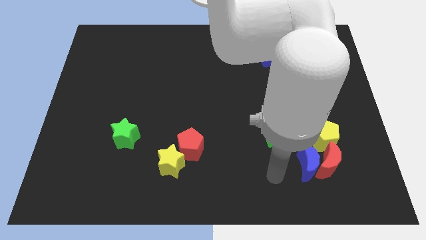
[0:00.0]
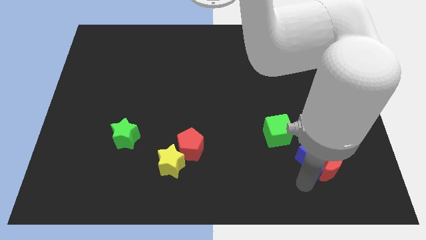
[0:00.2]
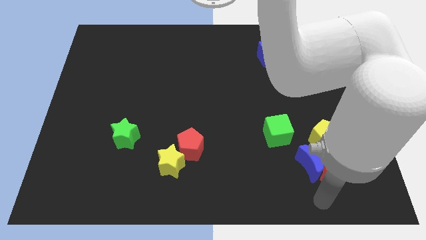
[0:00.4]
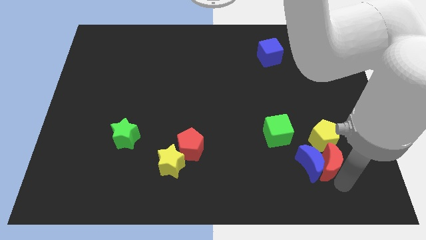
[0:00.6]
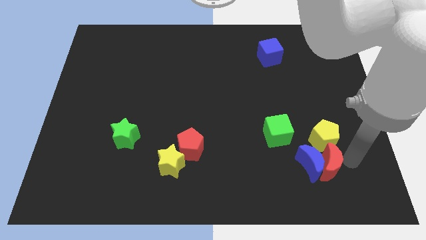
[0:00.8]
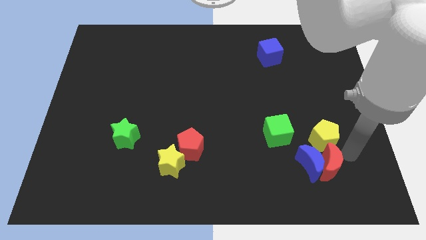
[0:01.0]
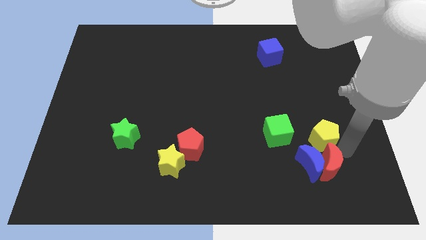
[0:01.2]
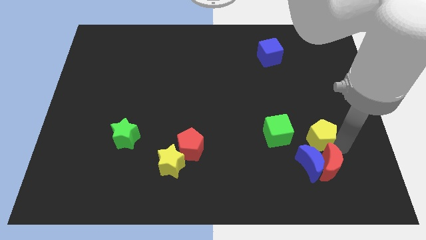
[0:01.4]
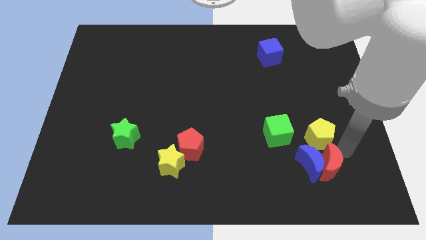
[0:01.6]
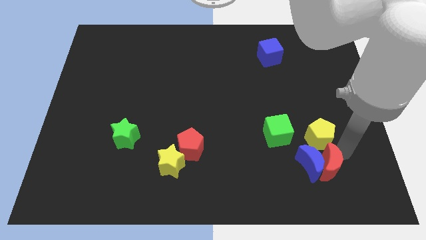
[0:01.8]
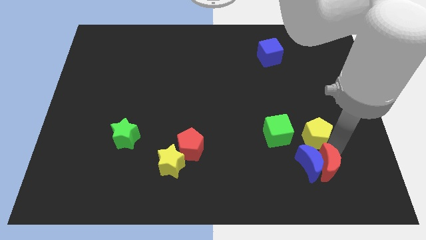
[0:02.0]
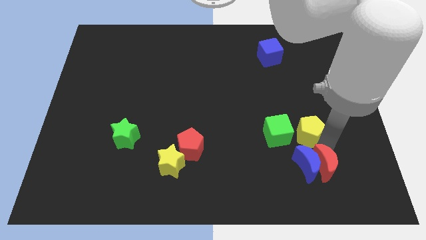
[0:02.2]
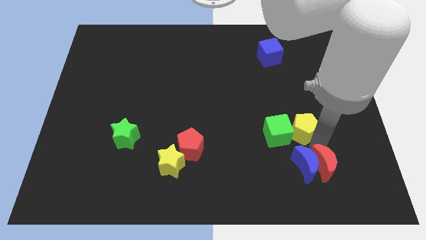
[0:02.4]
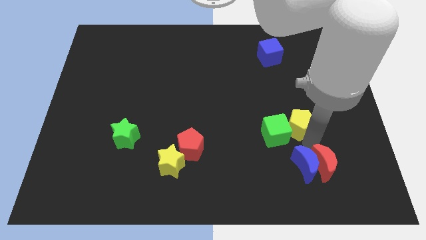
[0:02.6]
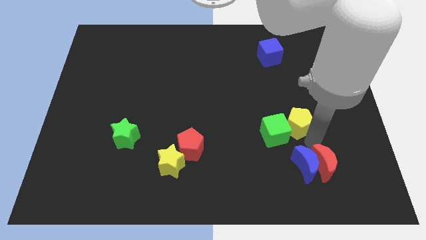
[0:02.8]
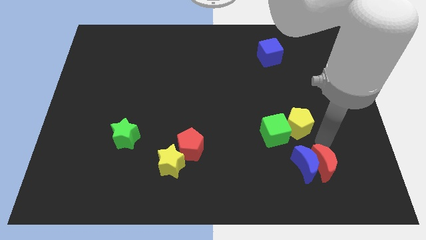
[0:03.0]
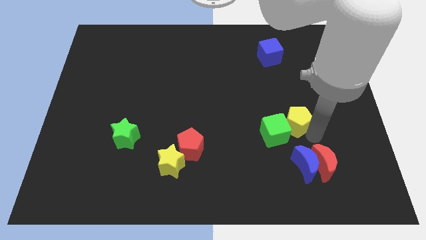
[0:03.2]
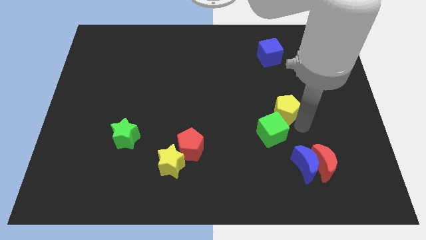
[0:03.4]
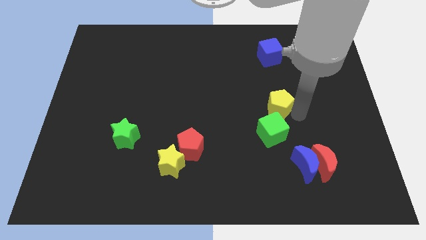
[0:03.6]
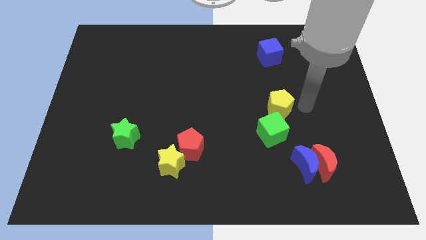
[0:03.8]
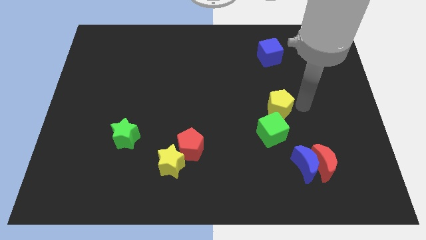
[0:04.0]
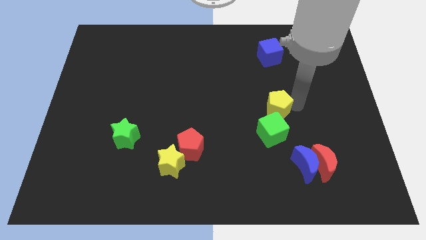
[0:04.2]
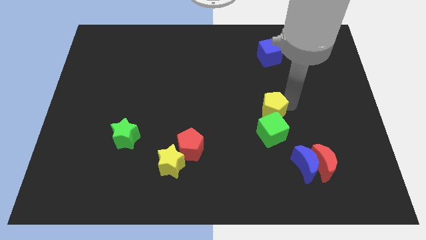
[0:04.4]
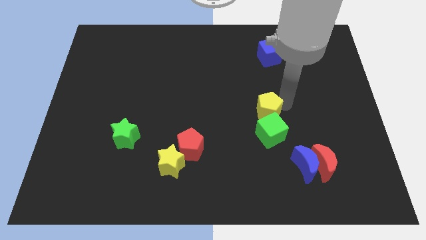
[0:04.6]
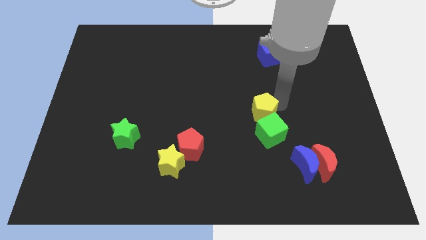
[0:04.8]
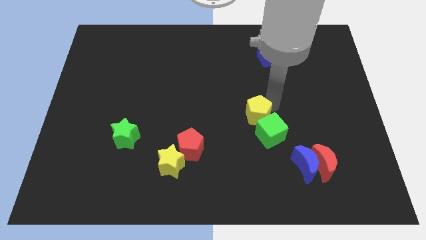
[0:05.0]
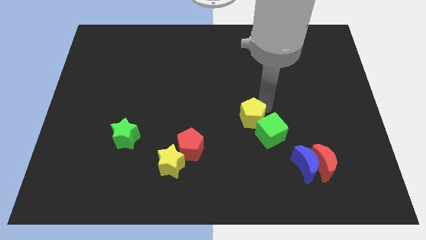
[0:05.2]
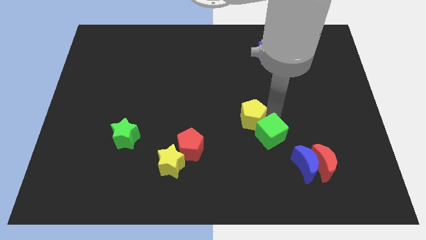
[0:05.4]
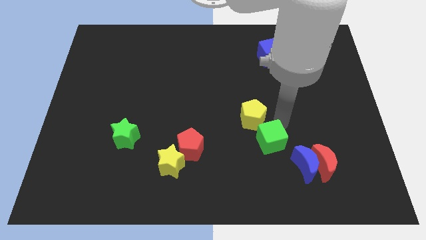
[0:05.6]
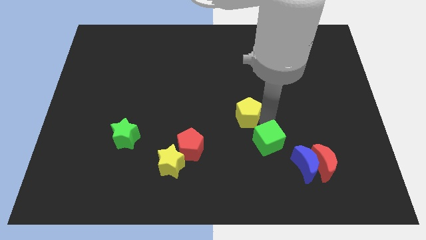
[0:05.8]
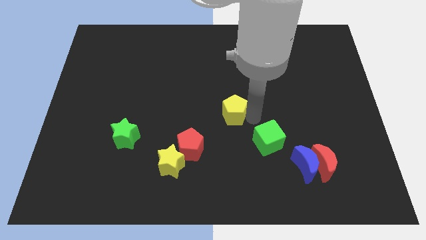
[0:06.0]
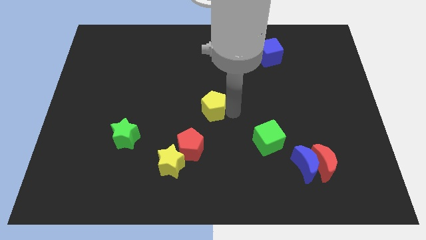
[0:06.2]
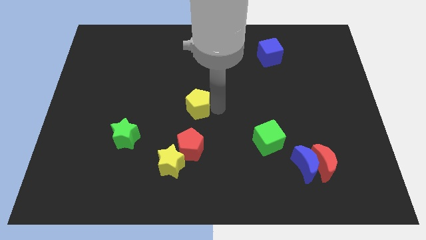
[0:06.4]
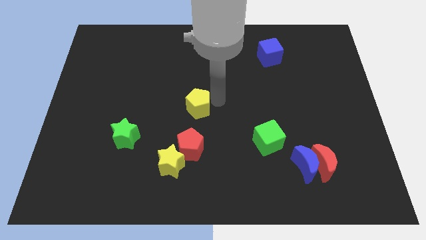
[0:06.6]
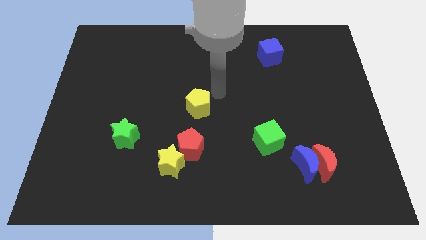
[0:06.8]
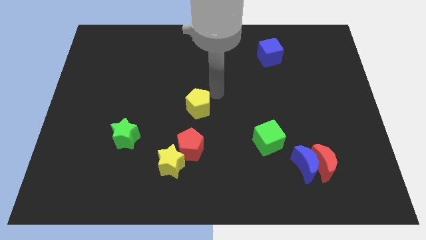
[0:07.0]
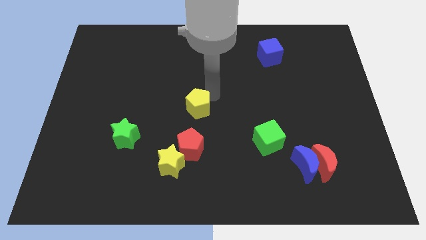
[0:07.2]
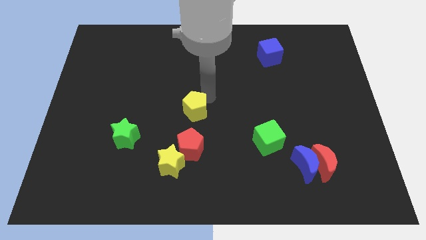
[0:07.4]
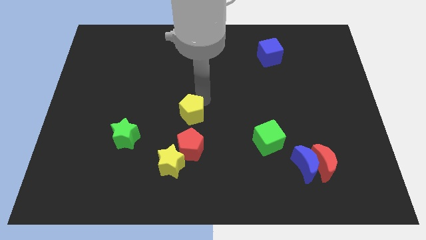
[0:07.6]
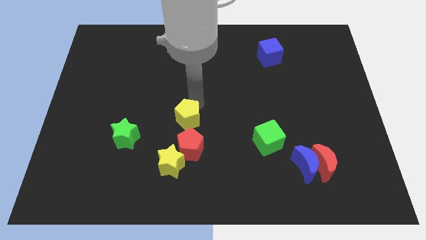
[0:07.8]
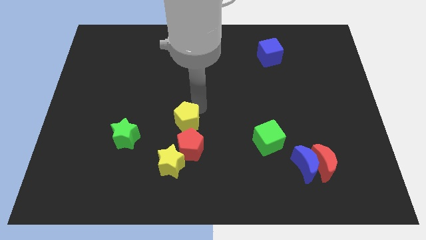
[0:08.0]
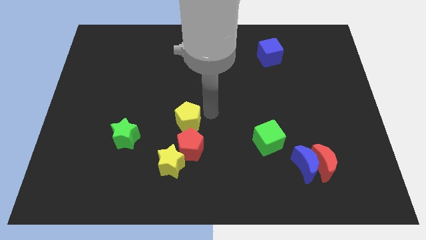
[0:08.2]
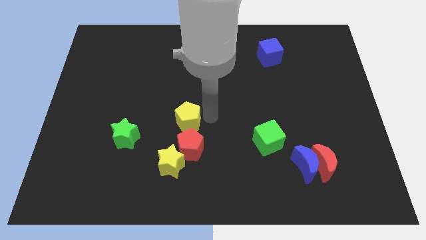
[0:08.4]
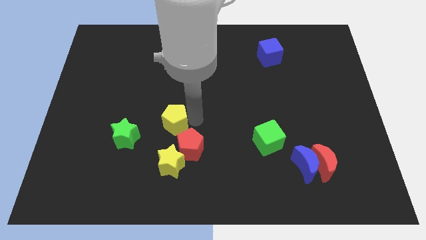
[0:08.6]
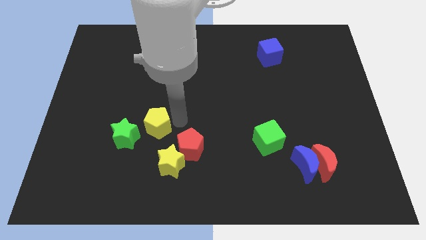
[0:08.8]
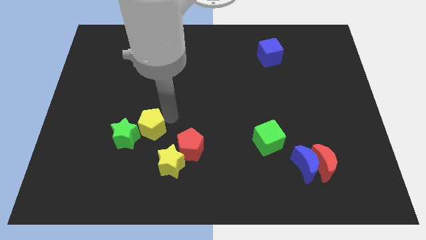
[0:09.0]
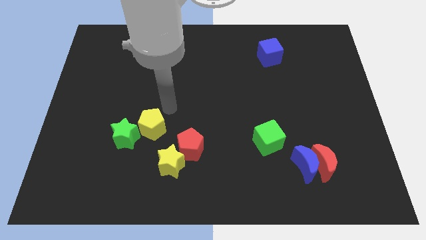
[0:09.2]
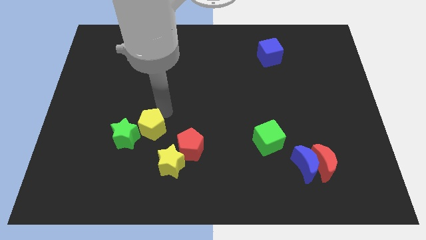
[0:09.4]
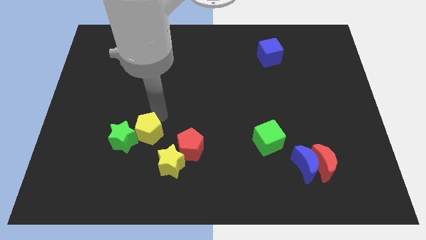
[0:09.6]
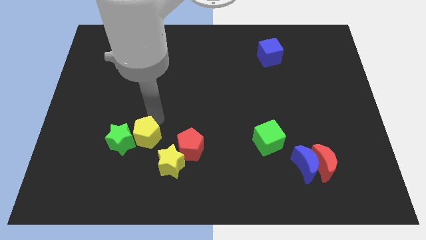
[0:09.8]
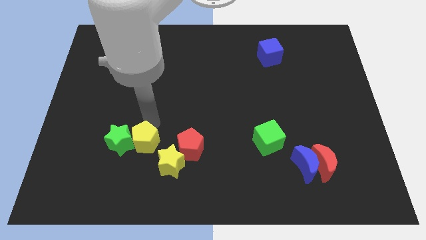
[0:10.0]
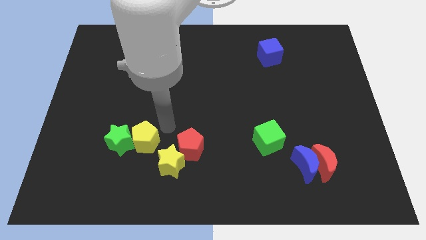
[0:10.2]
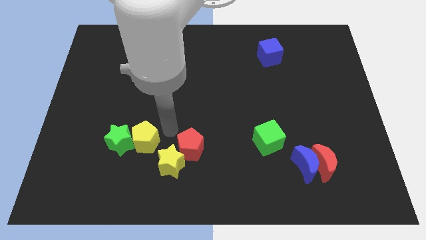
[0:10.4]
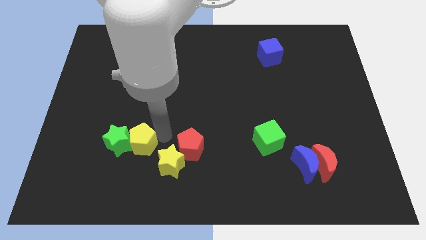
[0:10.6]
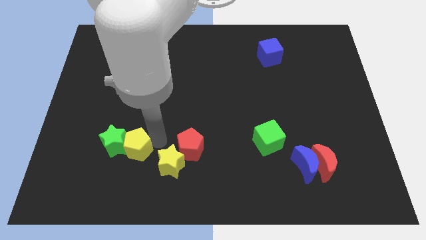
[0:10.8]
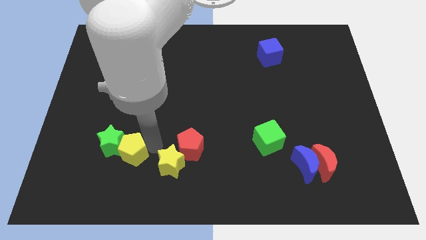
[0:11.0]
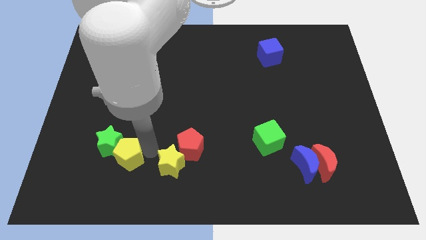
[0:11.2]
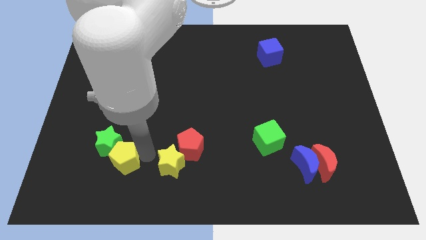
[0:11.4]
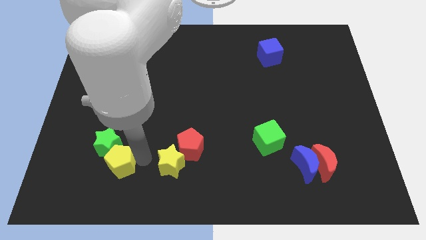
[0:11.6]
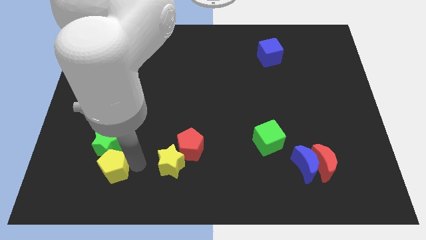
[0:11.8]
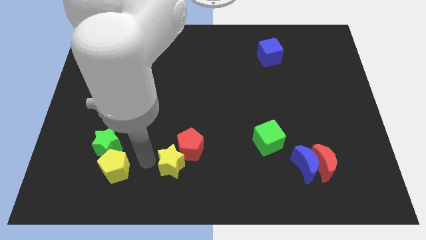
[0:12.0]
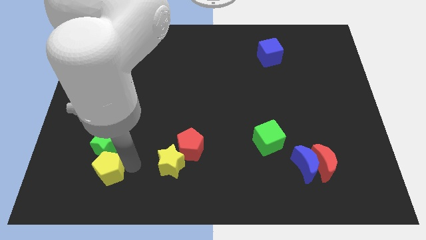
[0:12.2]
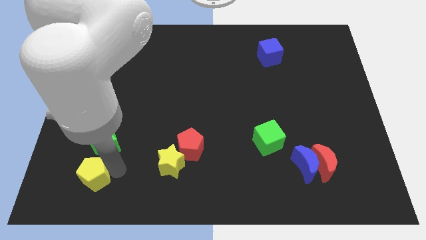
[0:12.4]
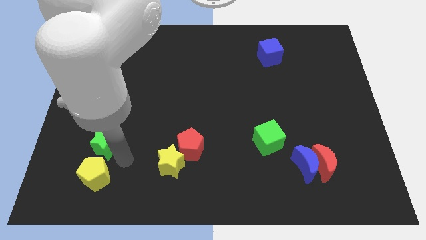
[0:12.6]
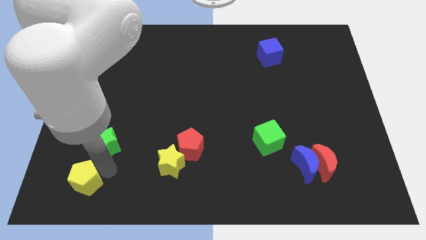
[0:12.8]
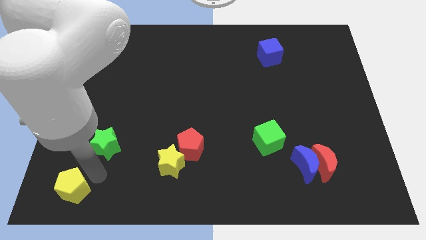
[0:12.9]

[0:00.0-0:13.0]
move the yellow pentagon to the bottom left of the board

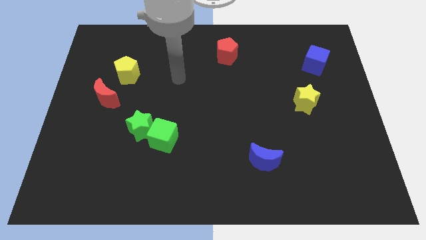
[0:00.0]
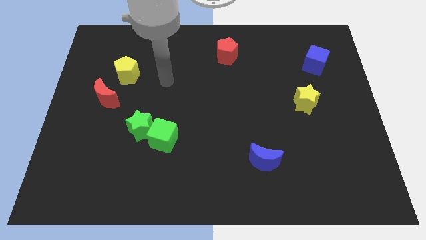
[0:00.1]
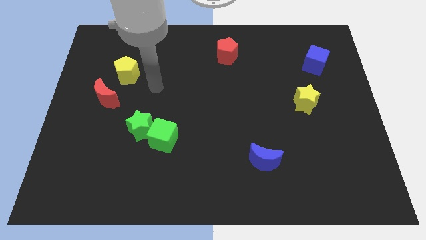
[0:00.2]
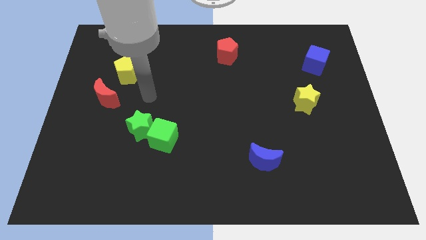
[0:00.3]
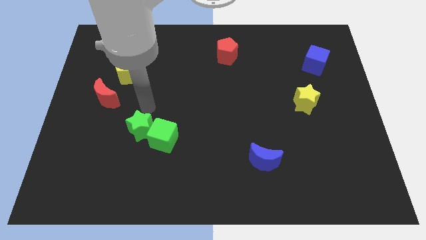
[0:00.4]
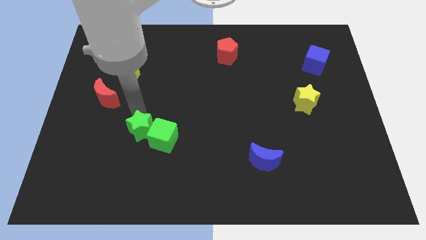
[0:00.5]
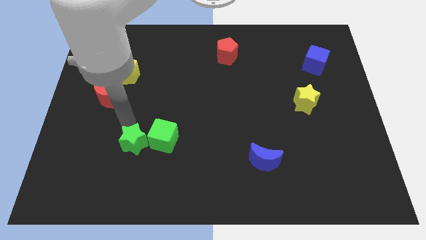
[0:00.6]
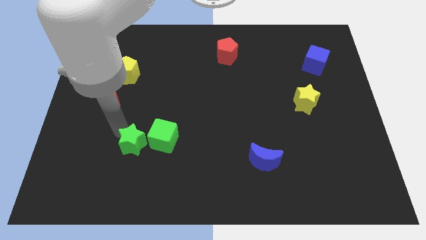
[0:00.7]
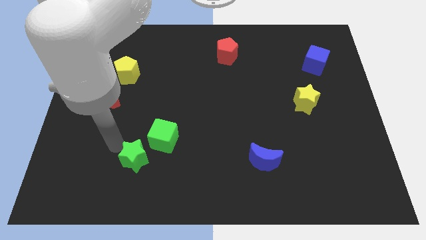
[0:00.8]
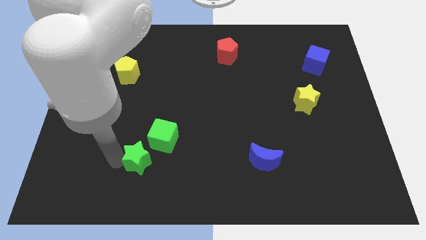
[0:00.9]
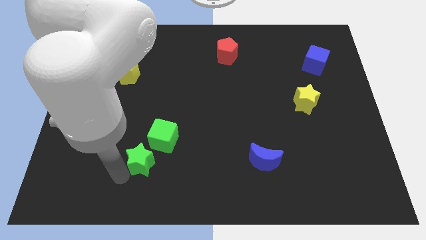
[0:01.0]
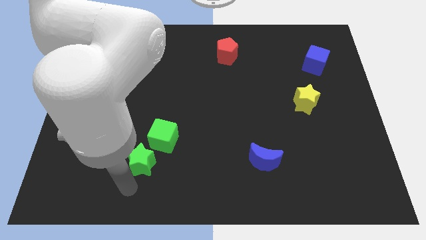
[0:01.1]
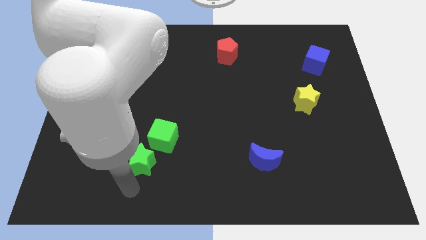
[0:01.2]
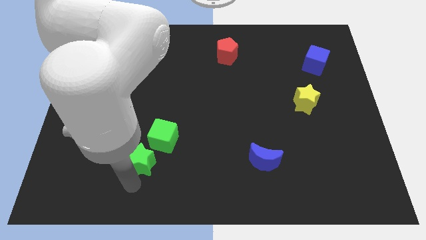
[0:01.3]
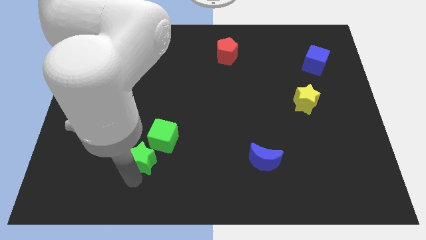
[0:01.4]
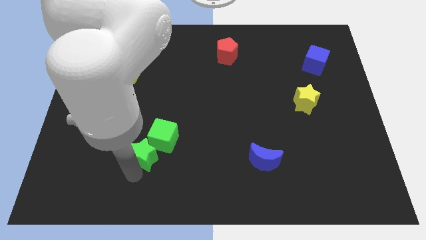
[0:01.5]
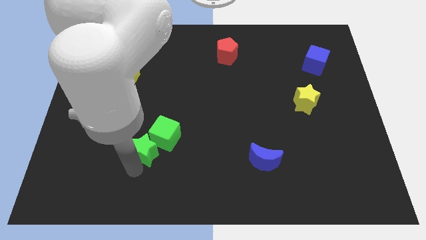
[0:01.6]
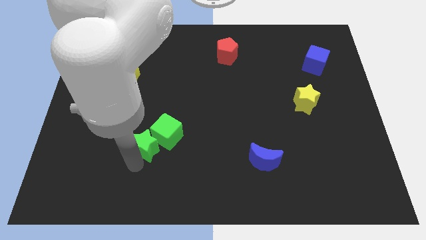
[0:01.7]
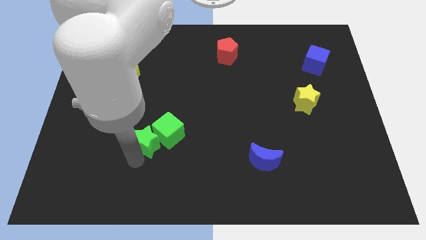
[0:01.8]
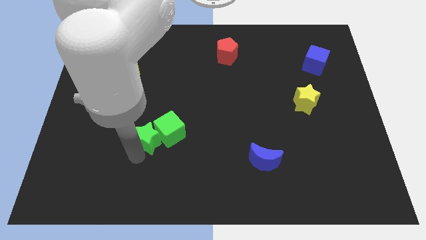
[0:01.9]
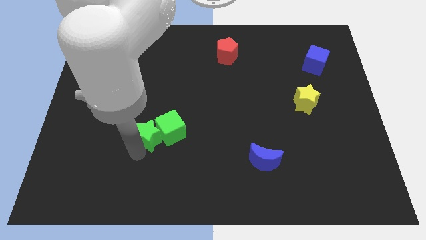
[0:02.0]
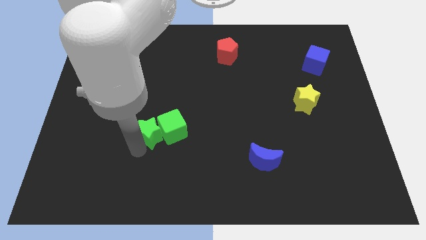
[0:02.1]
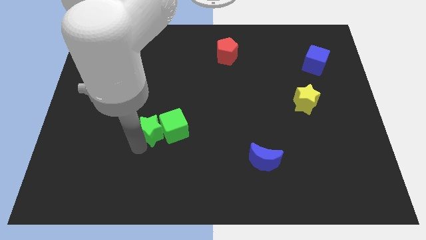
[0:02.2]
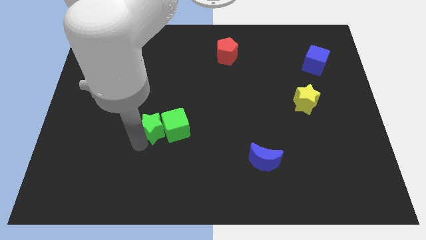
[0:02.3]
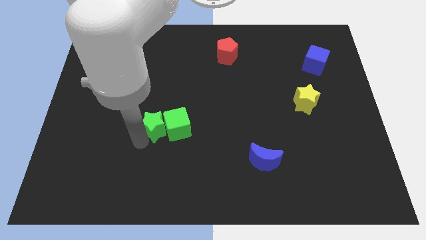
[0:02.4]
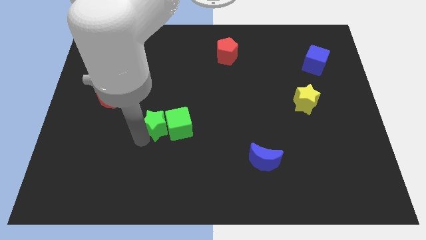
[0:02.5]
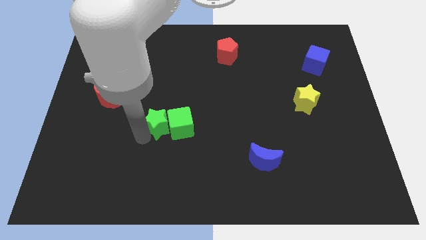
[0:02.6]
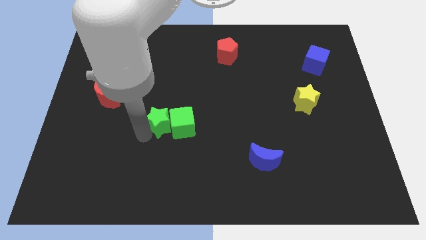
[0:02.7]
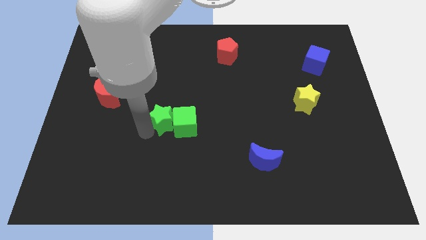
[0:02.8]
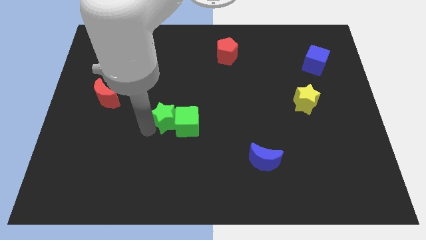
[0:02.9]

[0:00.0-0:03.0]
put the green star to the middle
